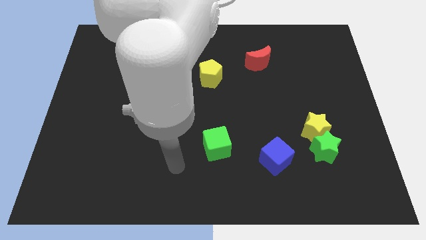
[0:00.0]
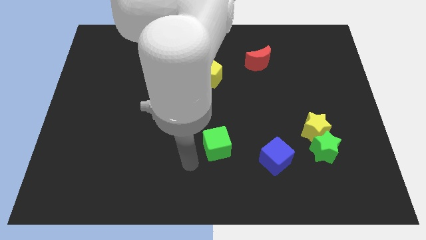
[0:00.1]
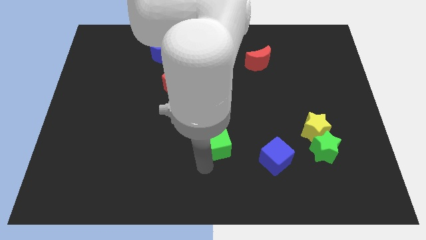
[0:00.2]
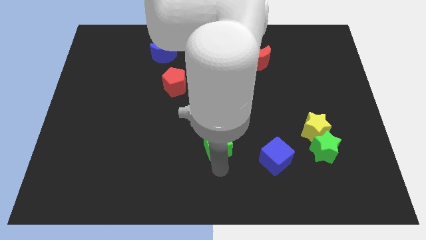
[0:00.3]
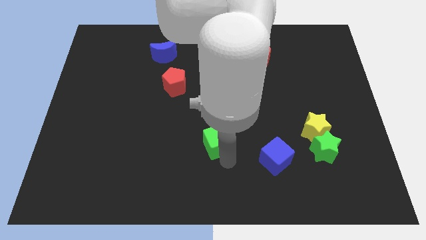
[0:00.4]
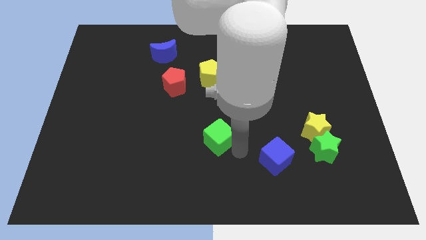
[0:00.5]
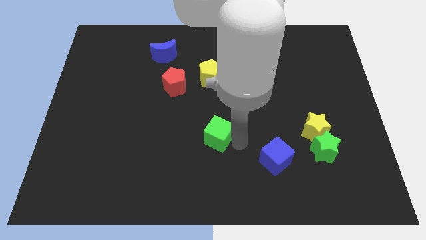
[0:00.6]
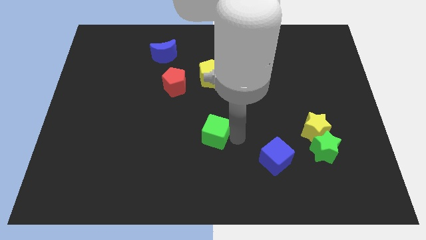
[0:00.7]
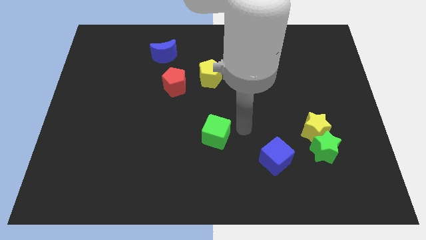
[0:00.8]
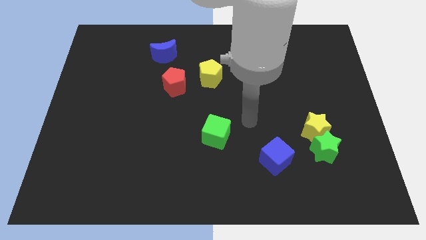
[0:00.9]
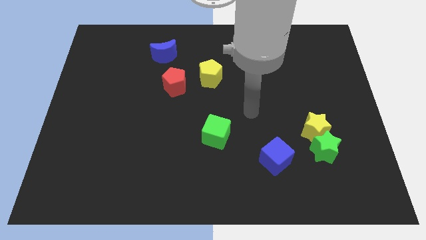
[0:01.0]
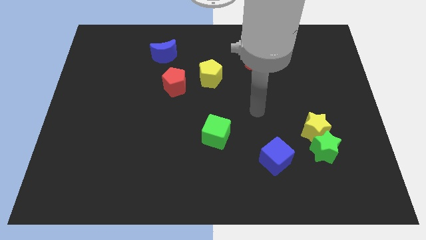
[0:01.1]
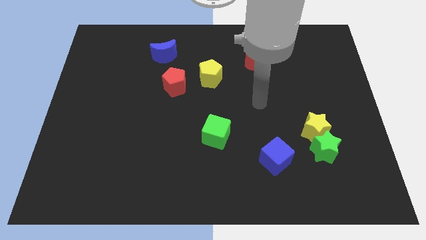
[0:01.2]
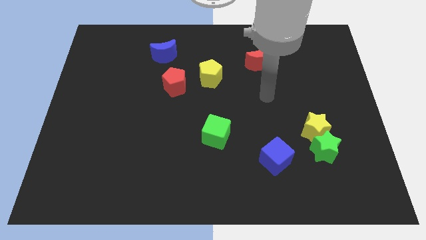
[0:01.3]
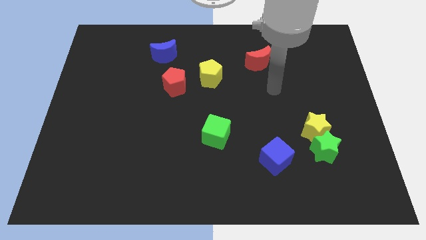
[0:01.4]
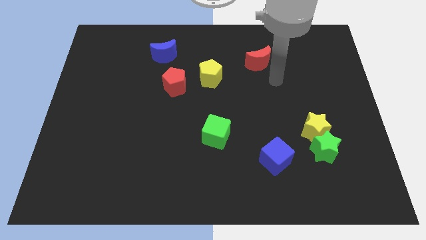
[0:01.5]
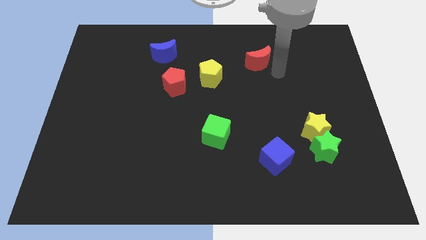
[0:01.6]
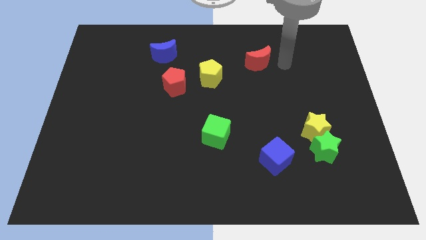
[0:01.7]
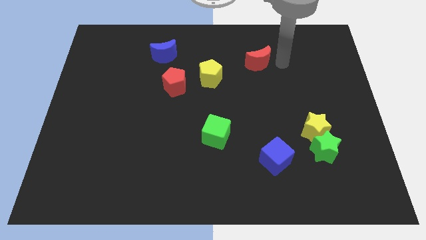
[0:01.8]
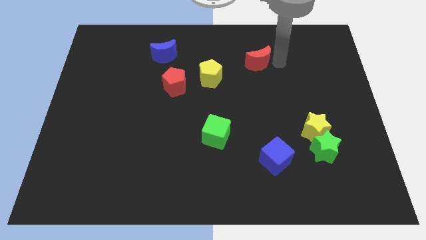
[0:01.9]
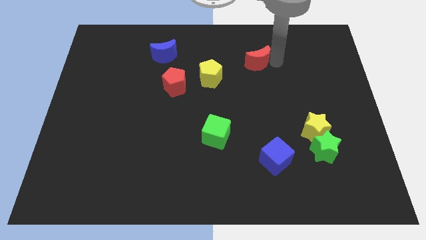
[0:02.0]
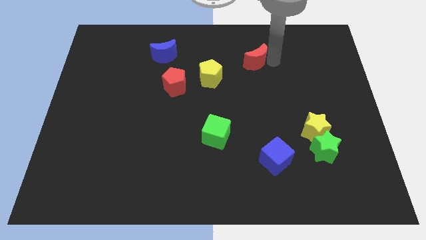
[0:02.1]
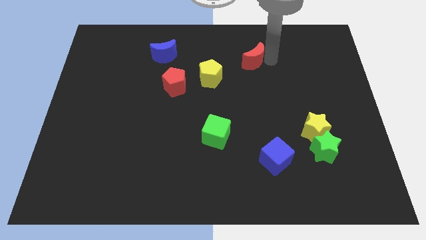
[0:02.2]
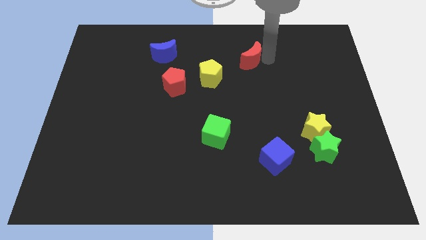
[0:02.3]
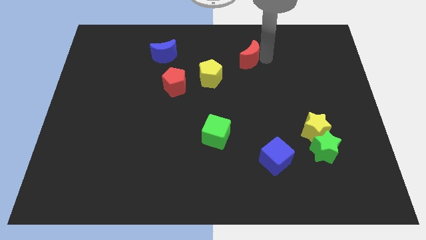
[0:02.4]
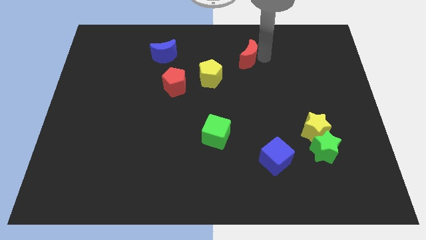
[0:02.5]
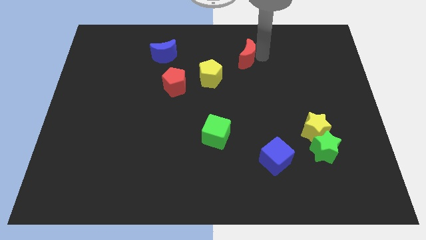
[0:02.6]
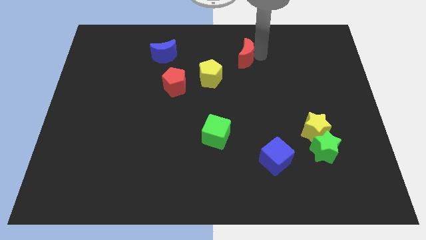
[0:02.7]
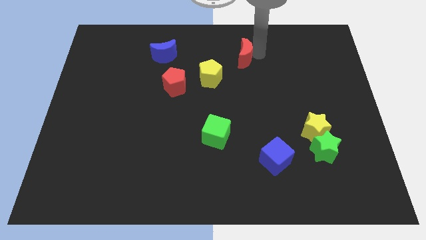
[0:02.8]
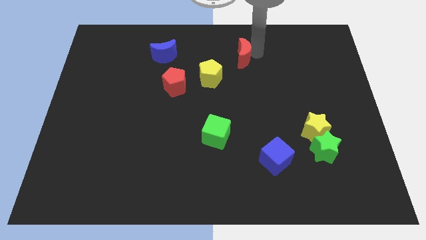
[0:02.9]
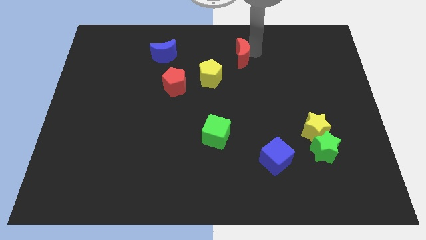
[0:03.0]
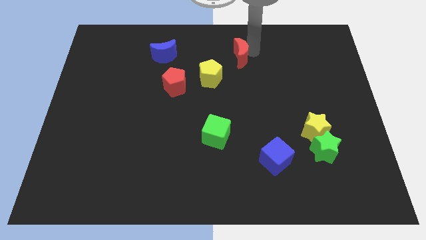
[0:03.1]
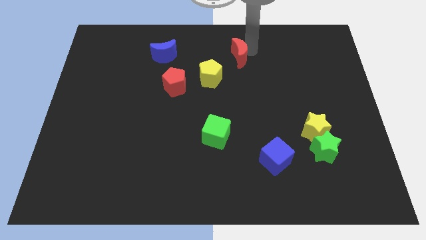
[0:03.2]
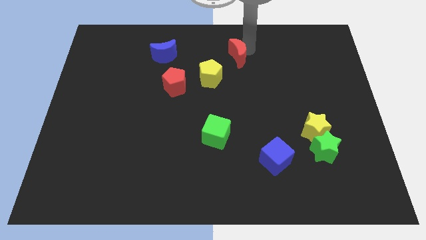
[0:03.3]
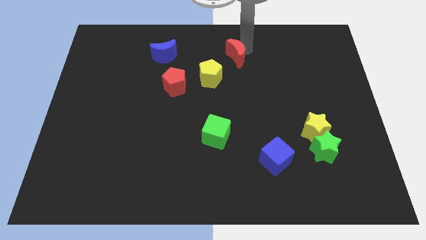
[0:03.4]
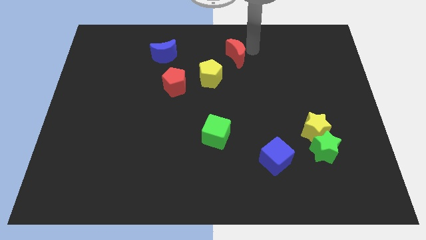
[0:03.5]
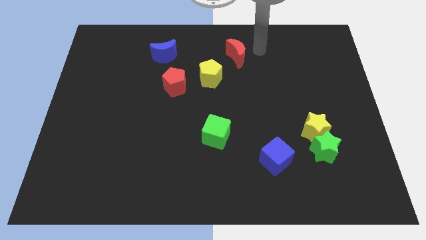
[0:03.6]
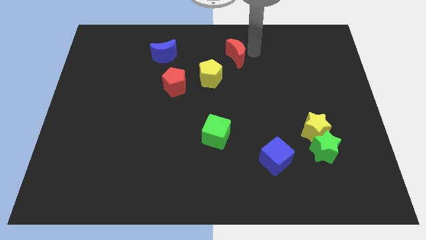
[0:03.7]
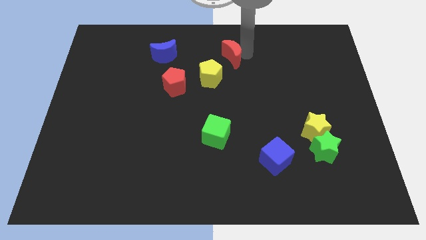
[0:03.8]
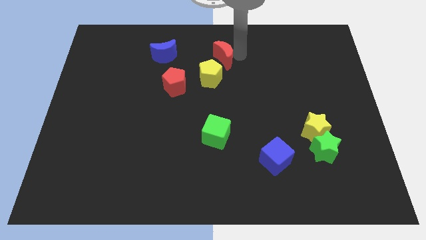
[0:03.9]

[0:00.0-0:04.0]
move the red moon a little left

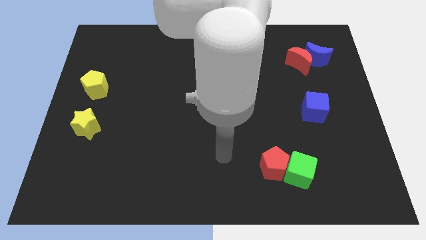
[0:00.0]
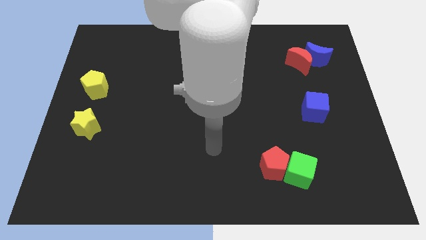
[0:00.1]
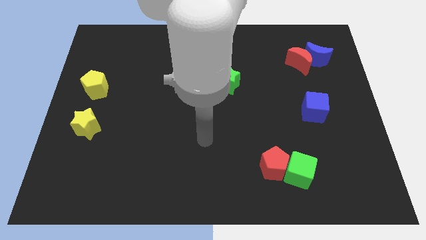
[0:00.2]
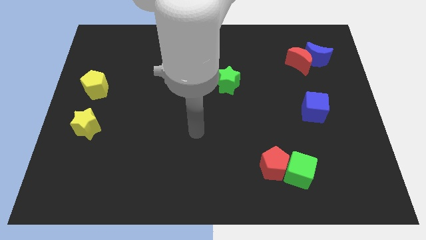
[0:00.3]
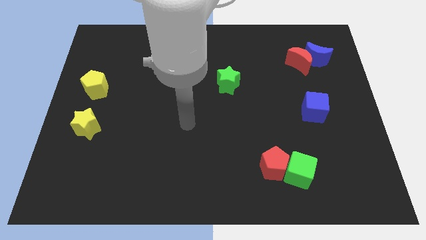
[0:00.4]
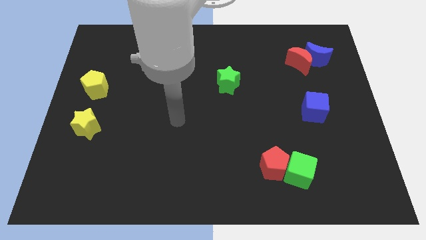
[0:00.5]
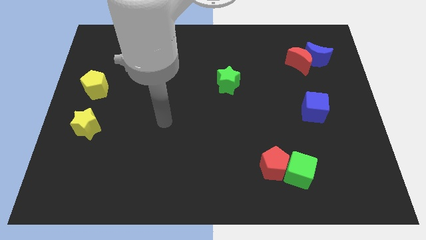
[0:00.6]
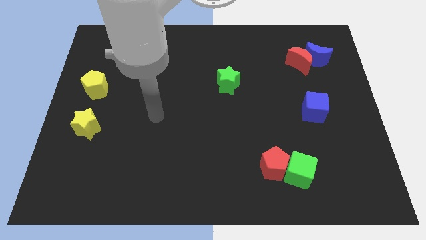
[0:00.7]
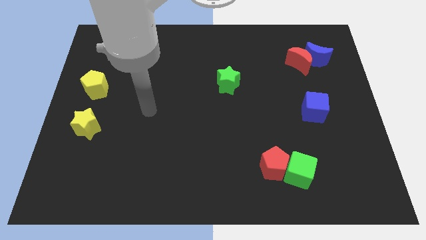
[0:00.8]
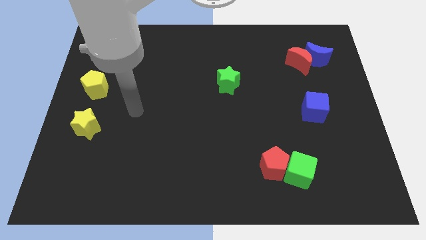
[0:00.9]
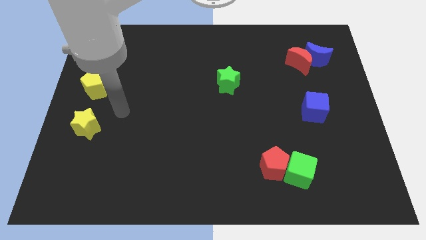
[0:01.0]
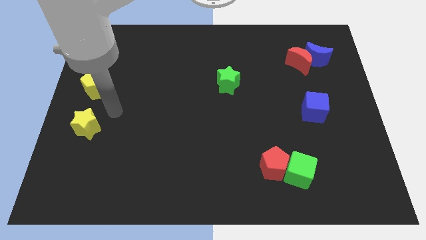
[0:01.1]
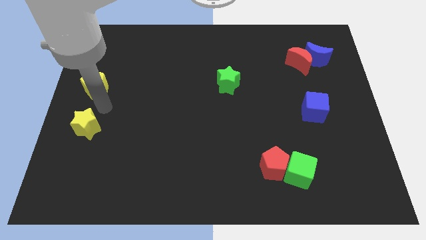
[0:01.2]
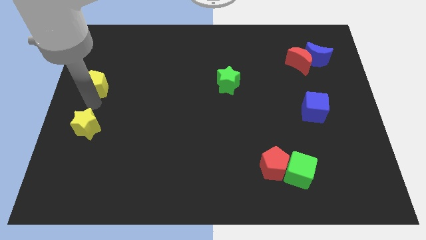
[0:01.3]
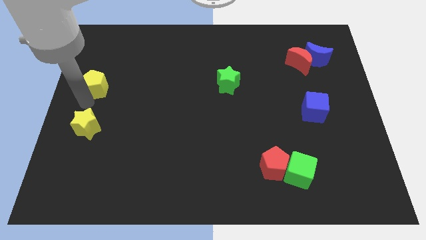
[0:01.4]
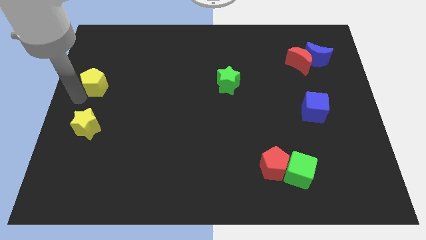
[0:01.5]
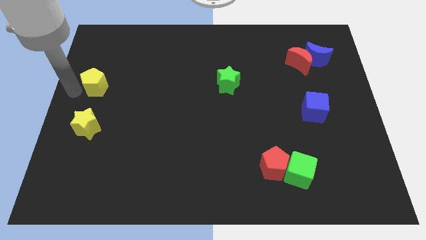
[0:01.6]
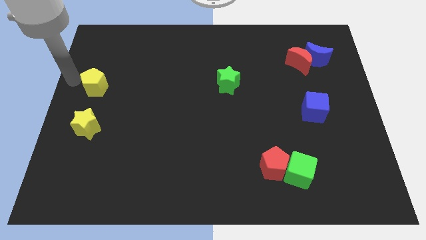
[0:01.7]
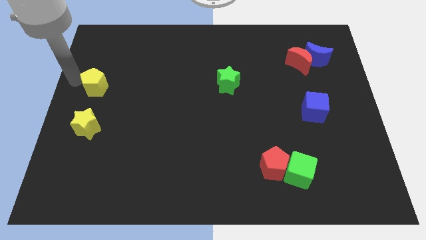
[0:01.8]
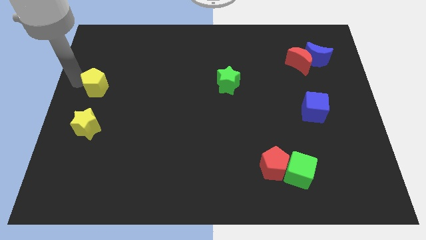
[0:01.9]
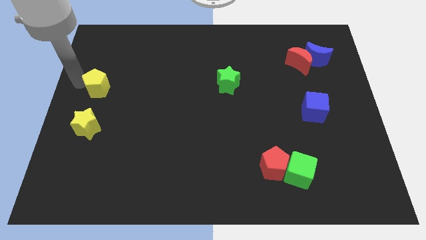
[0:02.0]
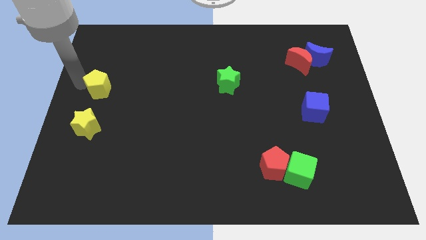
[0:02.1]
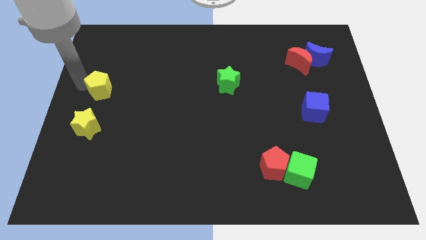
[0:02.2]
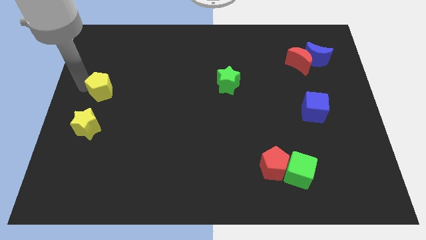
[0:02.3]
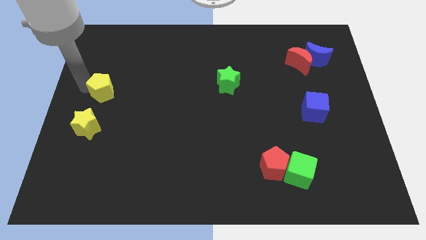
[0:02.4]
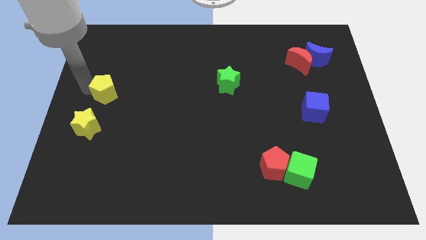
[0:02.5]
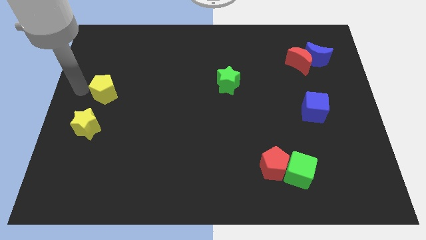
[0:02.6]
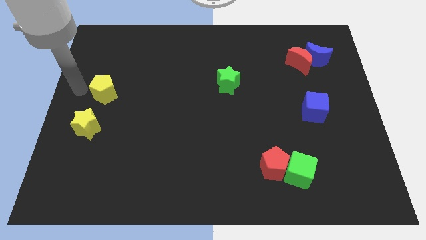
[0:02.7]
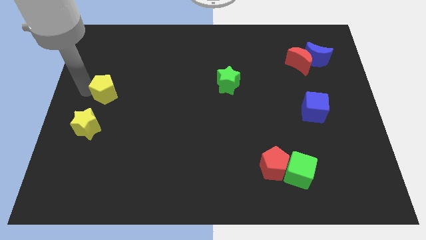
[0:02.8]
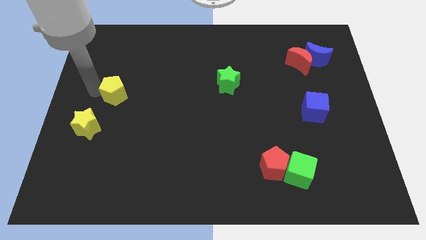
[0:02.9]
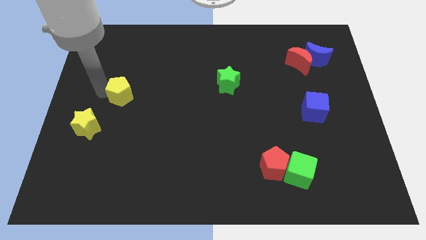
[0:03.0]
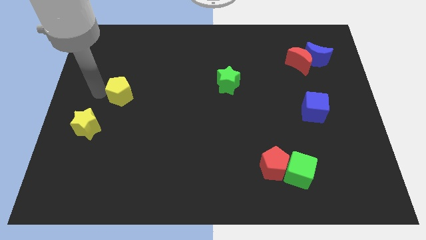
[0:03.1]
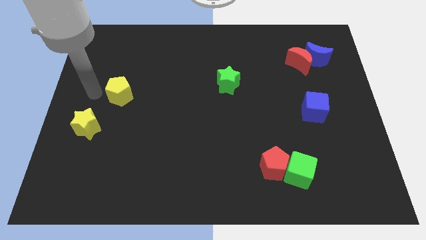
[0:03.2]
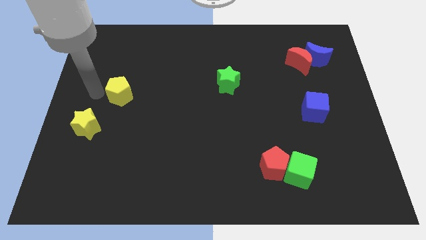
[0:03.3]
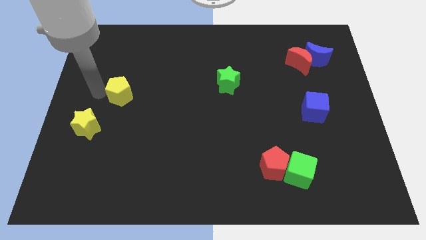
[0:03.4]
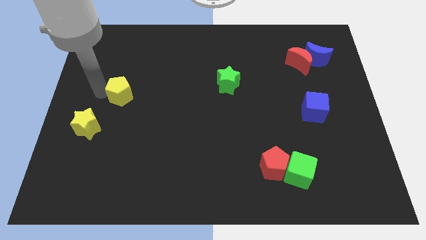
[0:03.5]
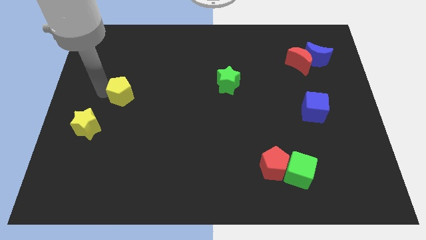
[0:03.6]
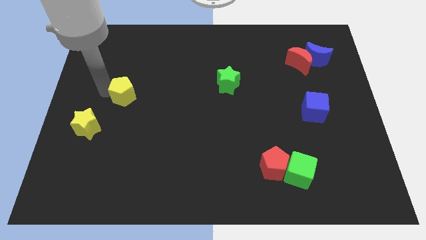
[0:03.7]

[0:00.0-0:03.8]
slide the yellow pentagon somewhat right

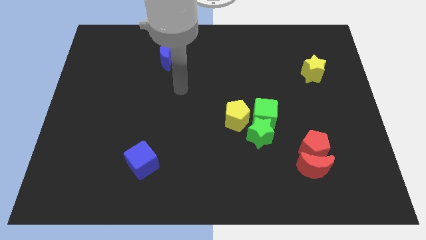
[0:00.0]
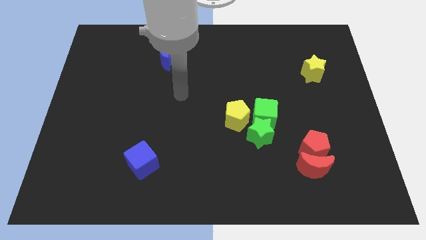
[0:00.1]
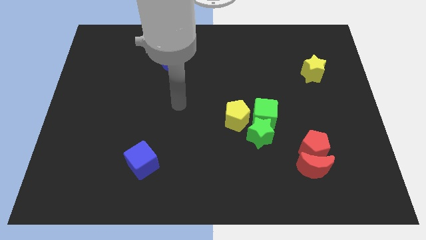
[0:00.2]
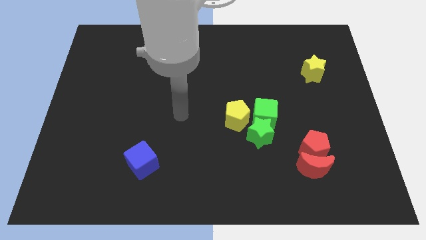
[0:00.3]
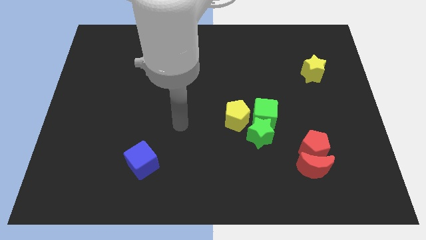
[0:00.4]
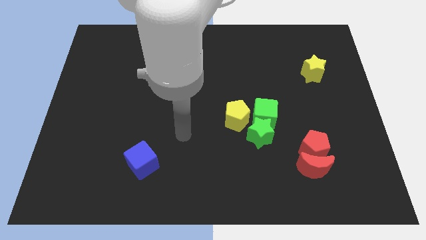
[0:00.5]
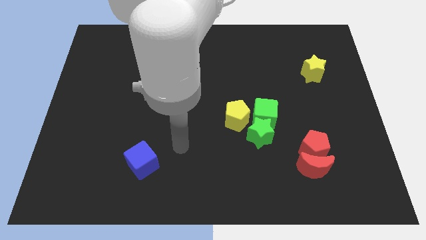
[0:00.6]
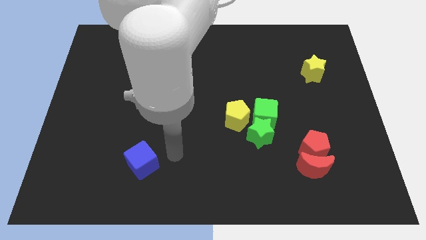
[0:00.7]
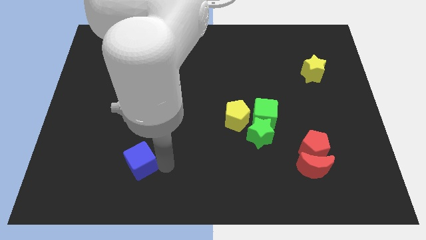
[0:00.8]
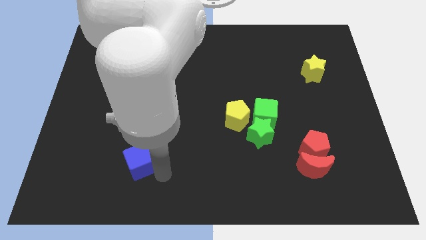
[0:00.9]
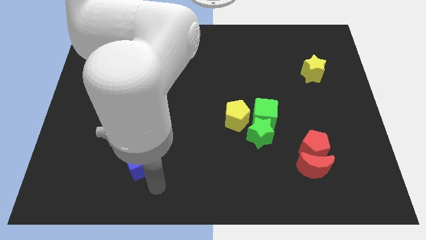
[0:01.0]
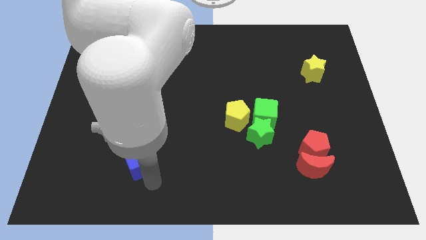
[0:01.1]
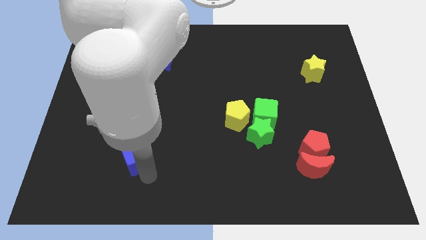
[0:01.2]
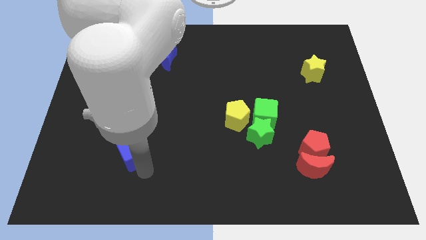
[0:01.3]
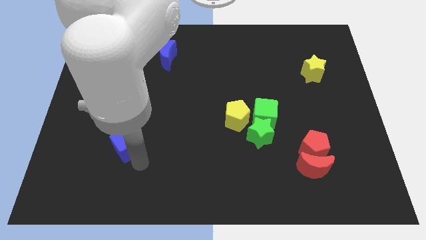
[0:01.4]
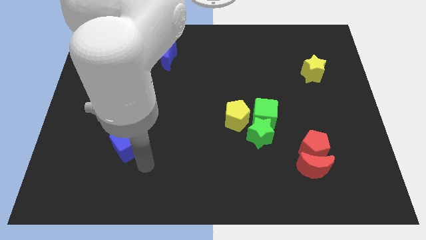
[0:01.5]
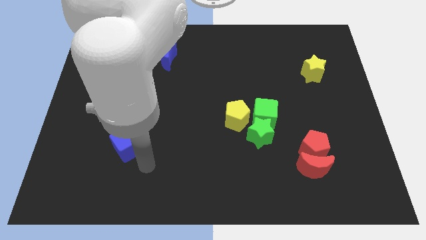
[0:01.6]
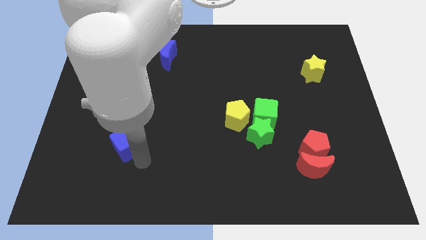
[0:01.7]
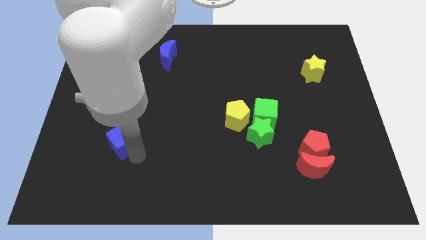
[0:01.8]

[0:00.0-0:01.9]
slightly push the blue cube diagonally up and left
